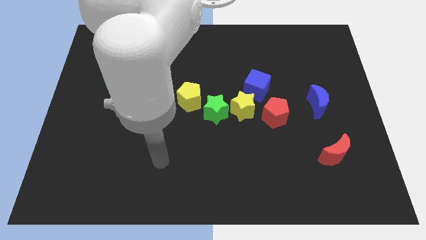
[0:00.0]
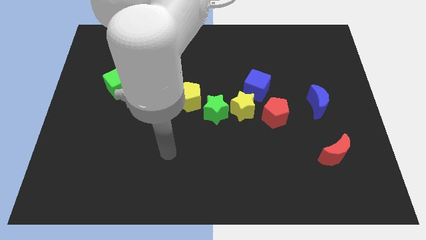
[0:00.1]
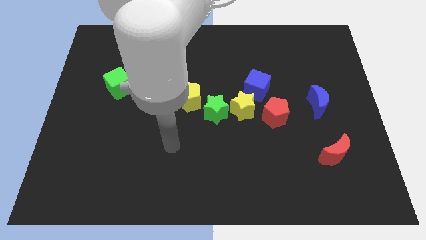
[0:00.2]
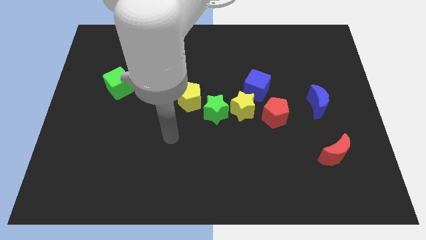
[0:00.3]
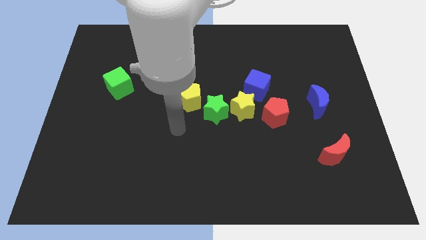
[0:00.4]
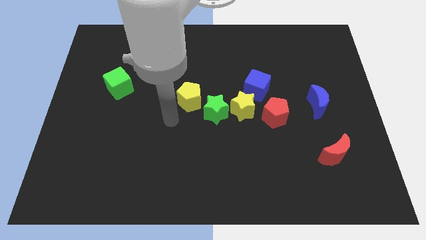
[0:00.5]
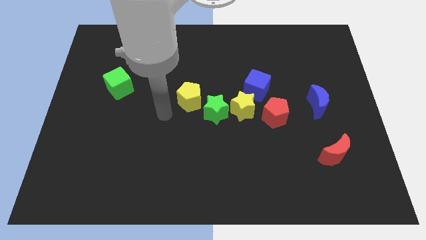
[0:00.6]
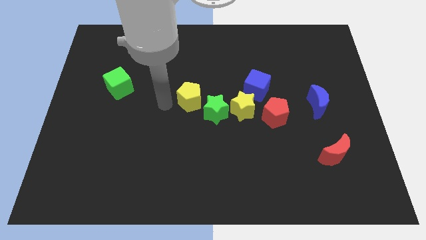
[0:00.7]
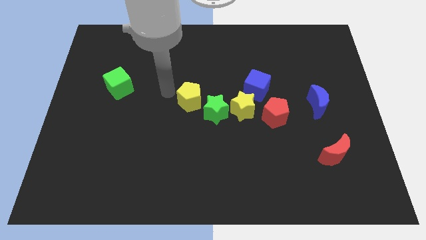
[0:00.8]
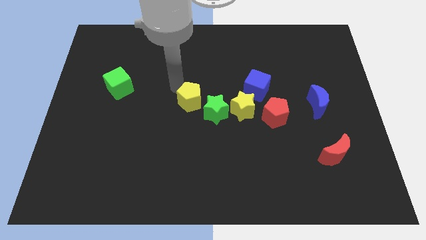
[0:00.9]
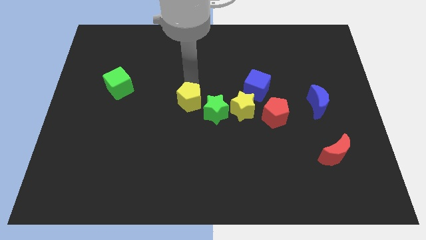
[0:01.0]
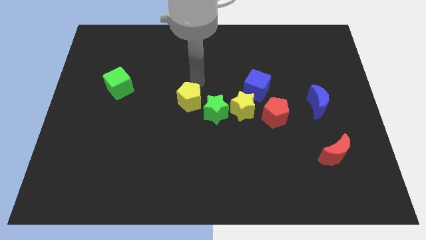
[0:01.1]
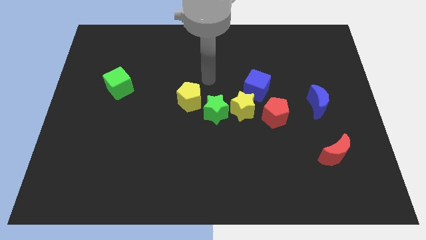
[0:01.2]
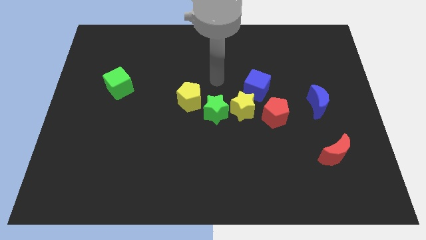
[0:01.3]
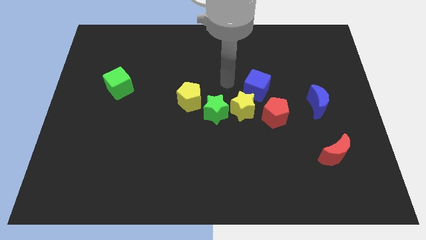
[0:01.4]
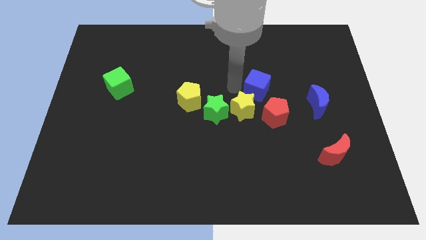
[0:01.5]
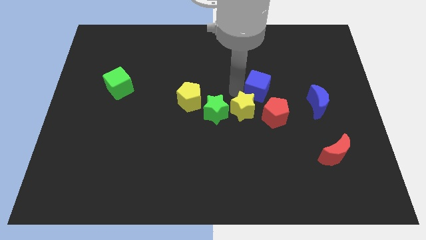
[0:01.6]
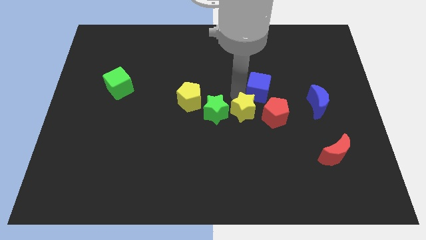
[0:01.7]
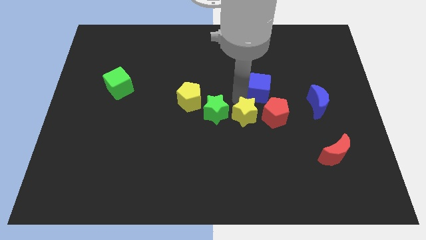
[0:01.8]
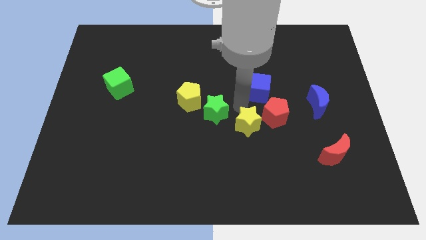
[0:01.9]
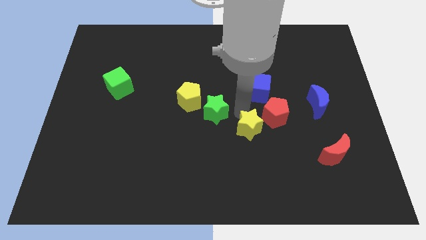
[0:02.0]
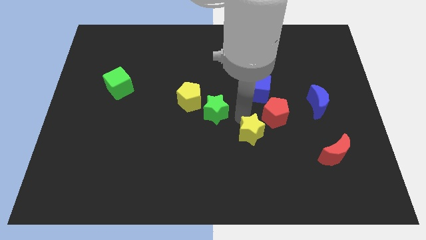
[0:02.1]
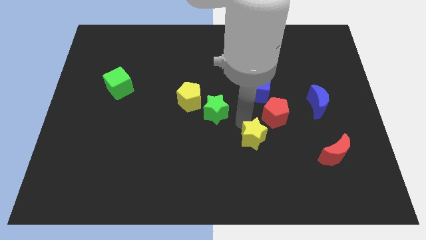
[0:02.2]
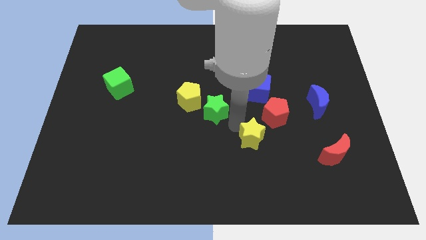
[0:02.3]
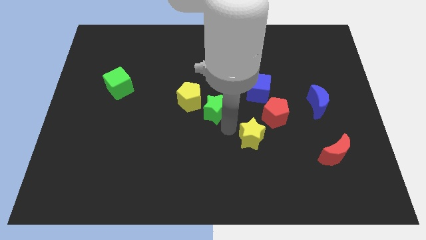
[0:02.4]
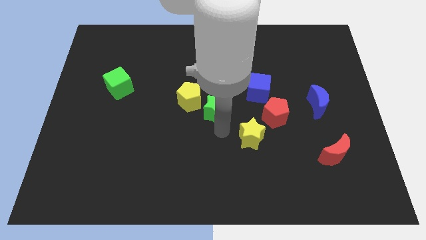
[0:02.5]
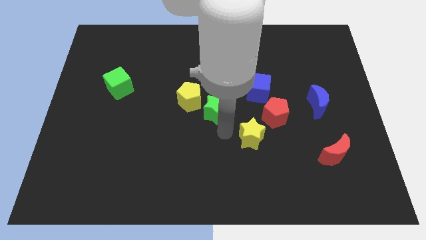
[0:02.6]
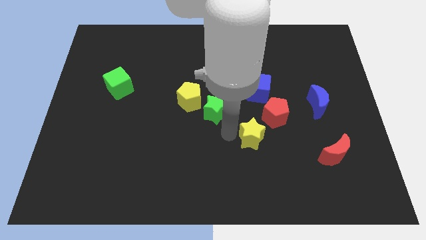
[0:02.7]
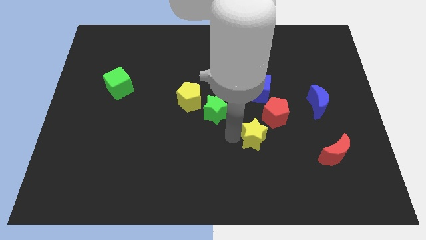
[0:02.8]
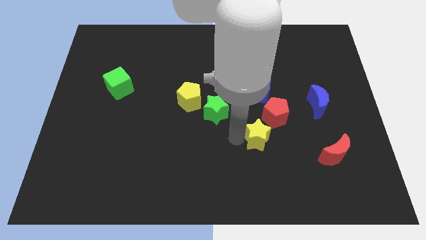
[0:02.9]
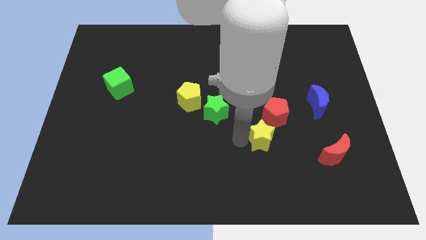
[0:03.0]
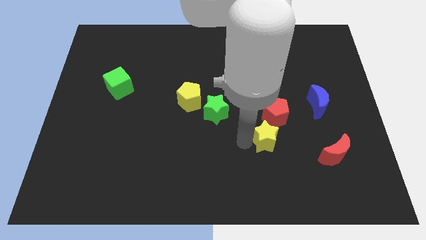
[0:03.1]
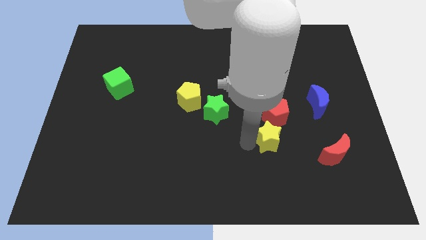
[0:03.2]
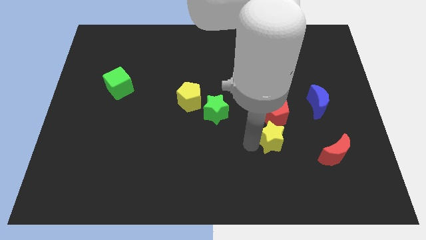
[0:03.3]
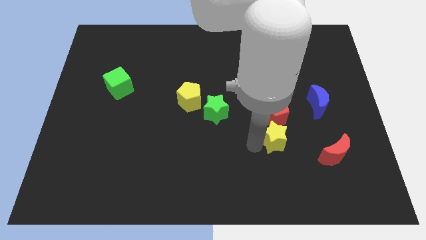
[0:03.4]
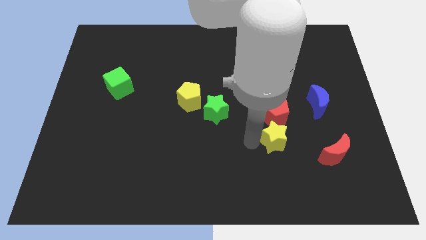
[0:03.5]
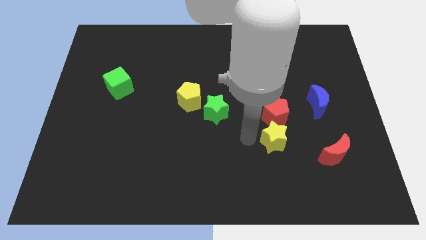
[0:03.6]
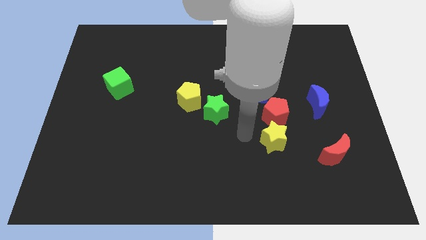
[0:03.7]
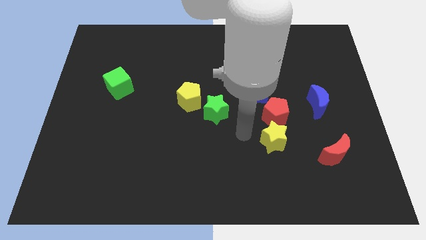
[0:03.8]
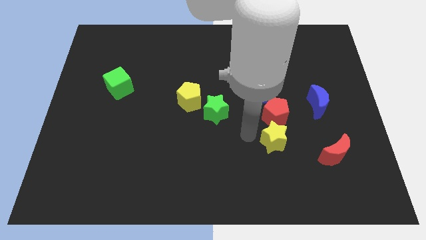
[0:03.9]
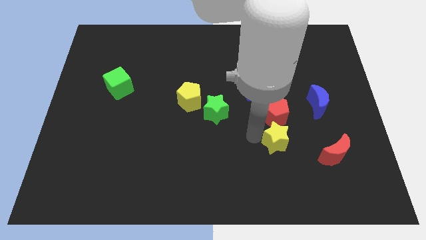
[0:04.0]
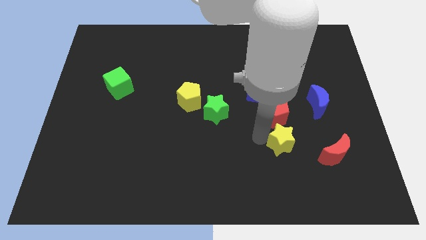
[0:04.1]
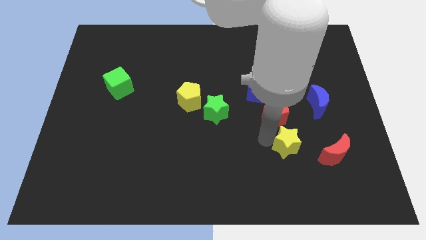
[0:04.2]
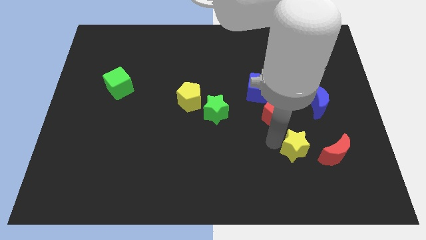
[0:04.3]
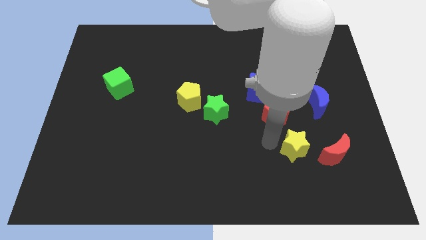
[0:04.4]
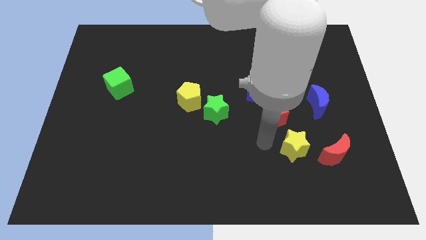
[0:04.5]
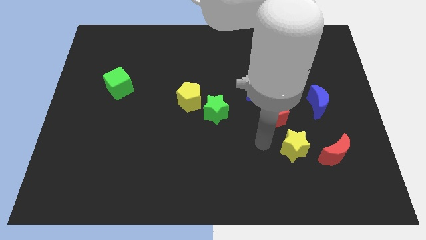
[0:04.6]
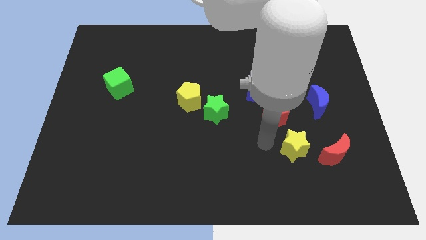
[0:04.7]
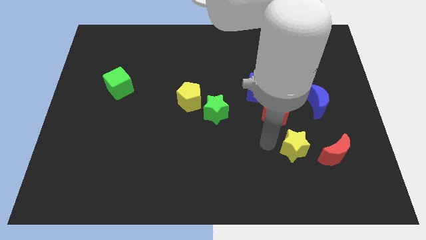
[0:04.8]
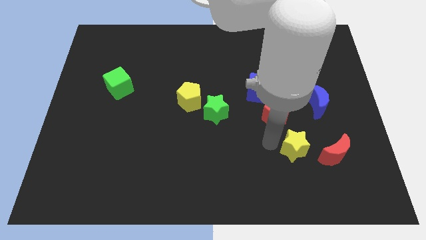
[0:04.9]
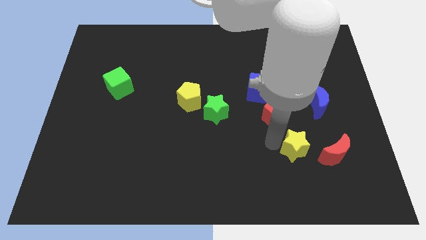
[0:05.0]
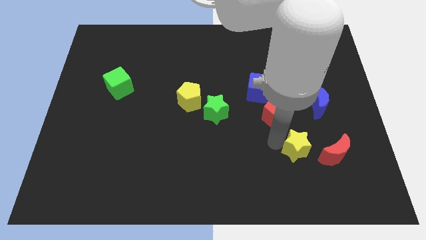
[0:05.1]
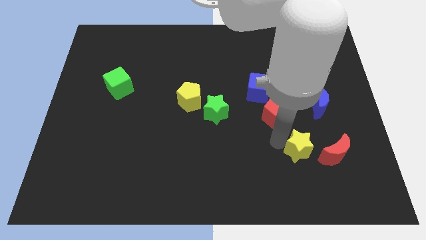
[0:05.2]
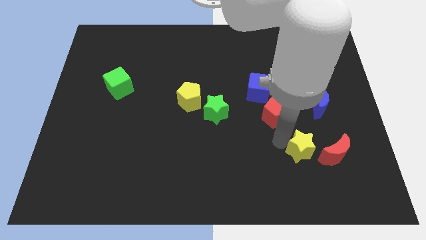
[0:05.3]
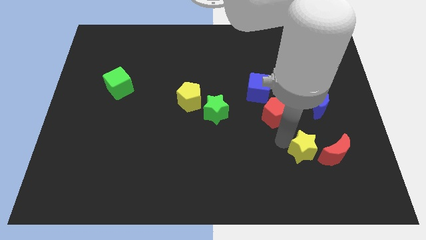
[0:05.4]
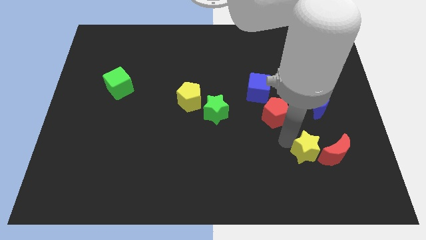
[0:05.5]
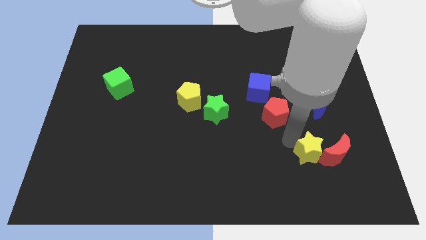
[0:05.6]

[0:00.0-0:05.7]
slide the yellow star close to the red moon

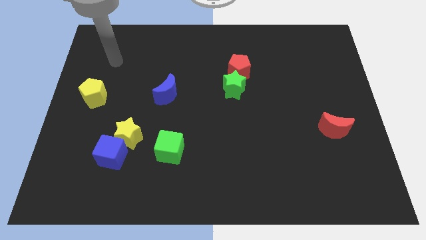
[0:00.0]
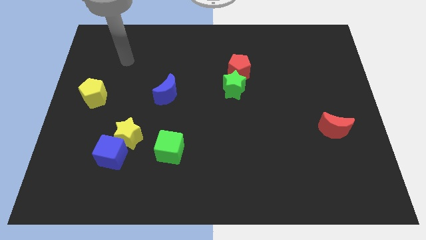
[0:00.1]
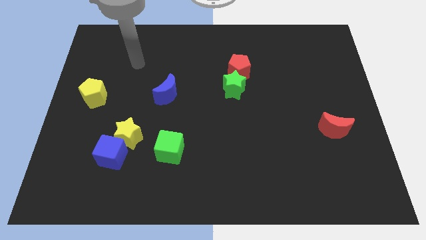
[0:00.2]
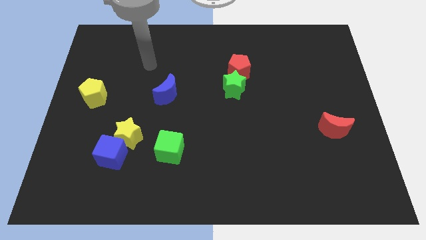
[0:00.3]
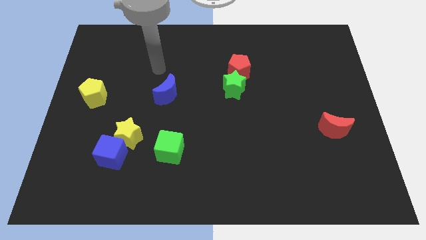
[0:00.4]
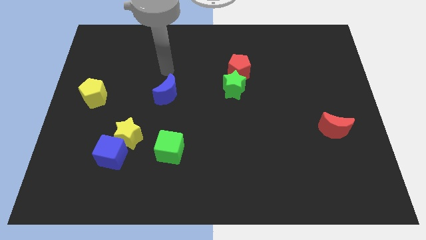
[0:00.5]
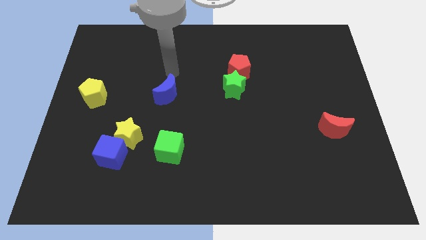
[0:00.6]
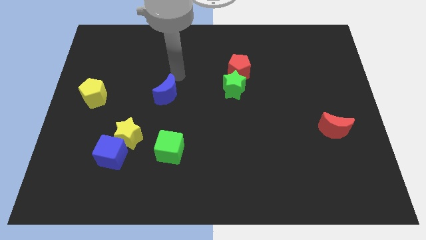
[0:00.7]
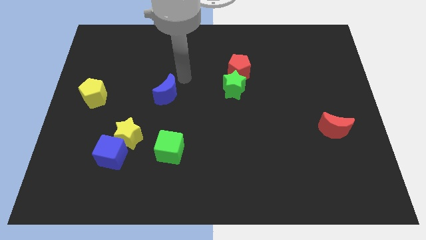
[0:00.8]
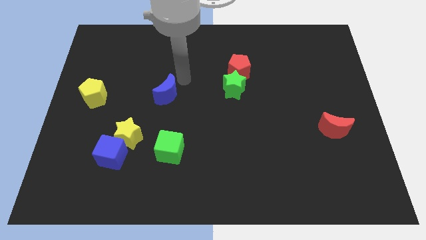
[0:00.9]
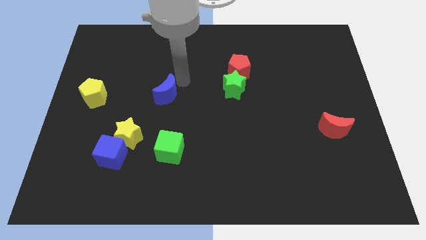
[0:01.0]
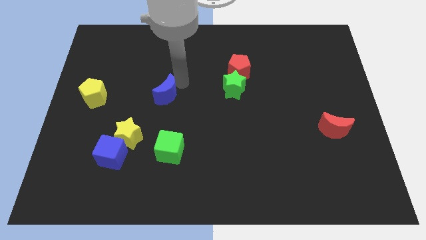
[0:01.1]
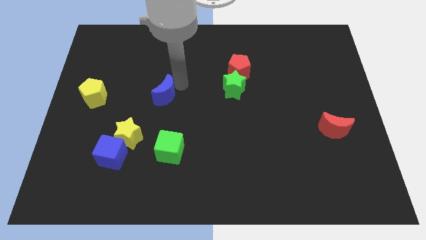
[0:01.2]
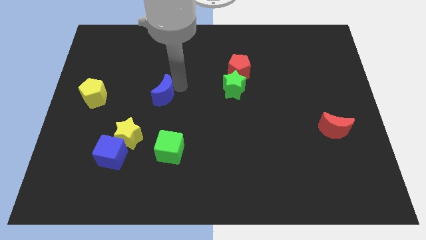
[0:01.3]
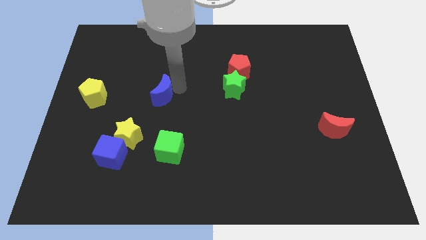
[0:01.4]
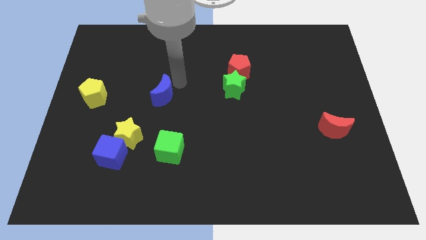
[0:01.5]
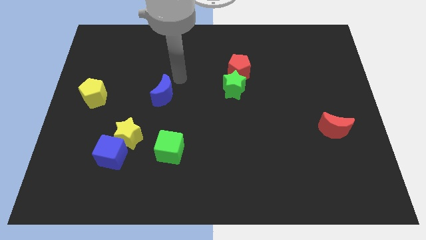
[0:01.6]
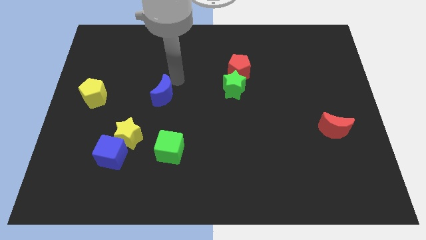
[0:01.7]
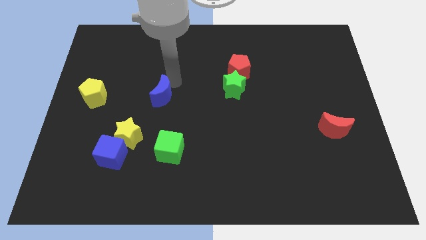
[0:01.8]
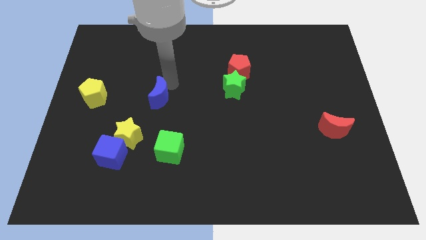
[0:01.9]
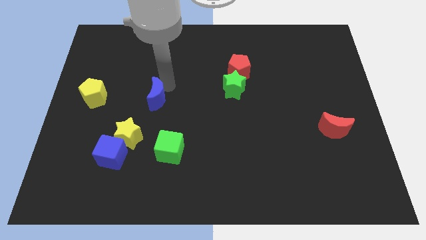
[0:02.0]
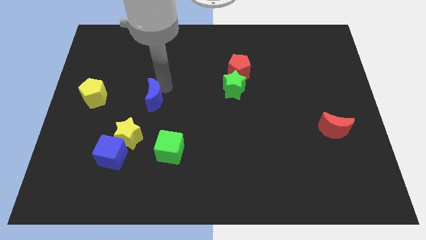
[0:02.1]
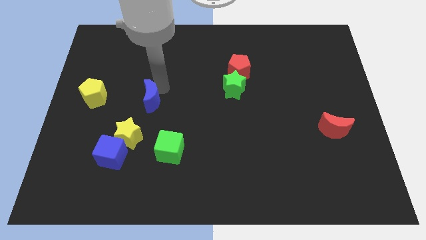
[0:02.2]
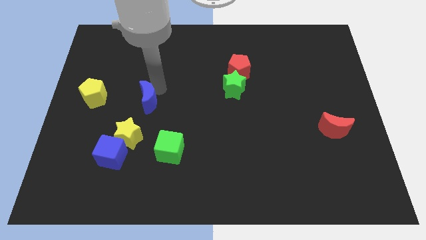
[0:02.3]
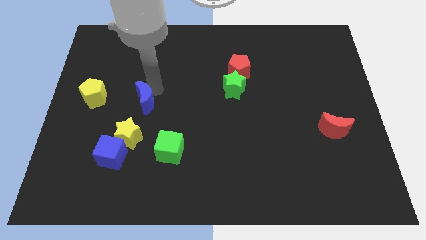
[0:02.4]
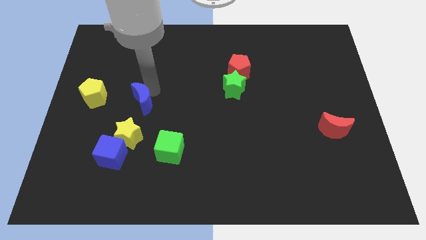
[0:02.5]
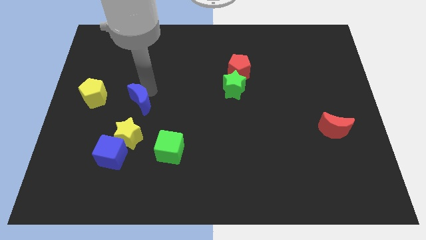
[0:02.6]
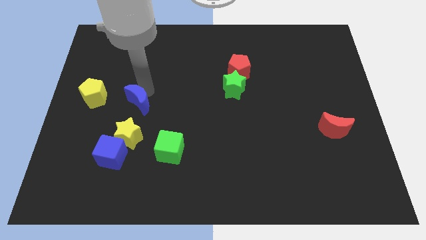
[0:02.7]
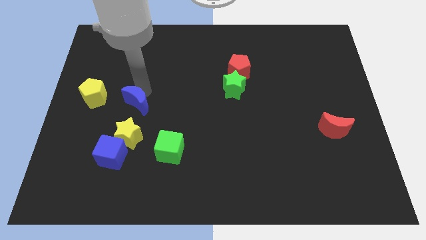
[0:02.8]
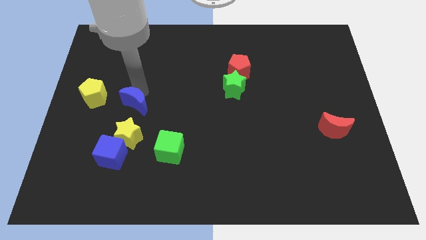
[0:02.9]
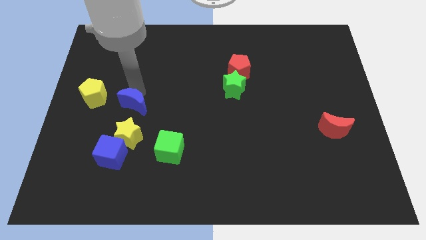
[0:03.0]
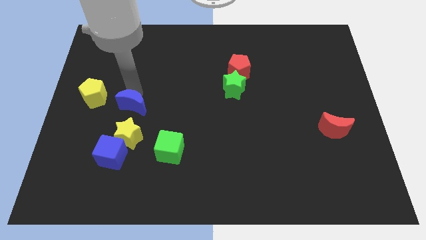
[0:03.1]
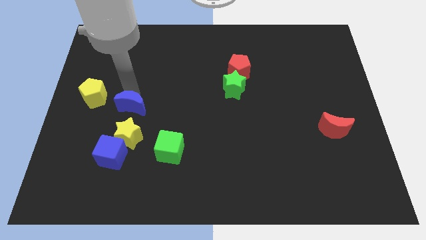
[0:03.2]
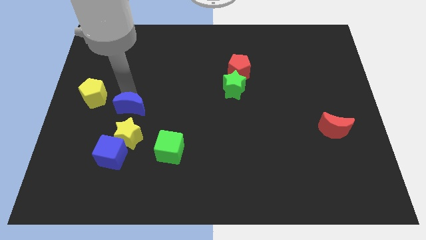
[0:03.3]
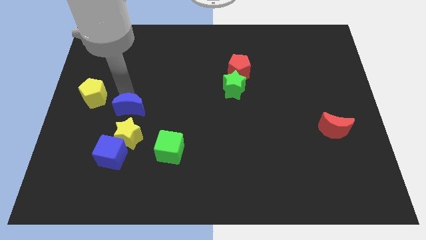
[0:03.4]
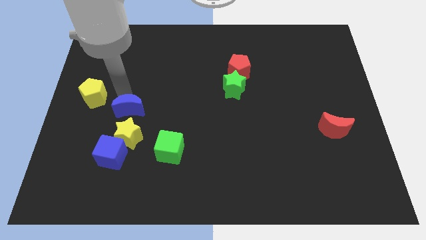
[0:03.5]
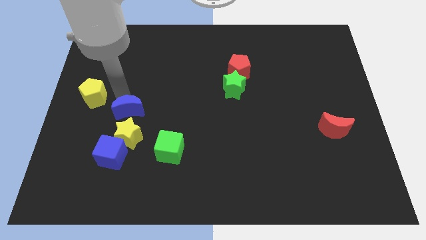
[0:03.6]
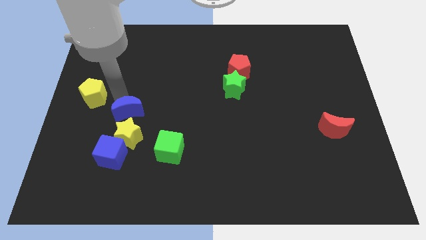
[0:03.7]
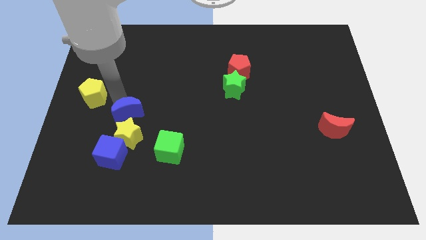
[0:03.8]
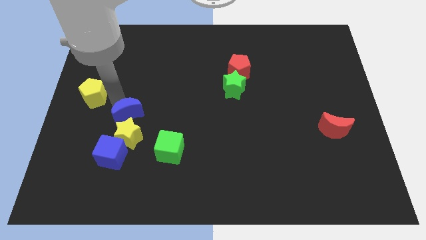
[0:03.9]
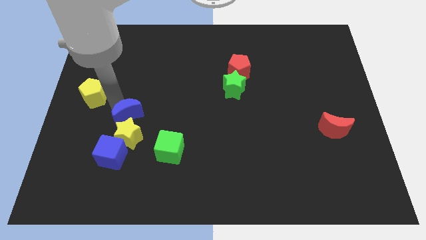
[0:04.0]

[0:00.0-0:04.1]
put the blue moon close to the yellow star
